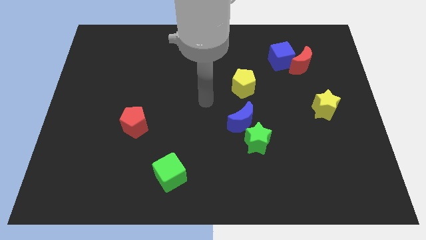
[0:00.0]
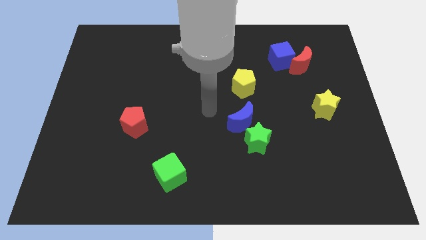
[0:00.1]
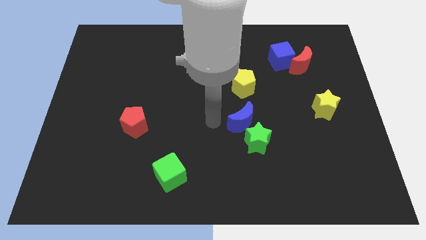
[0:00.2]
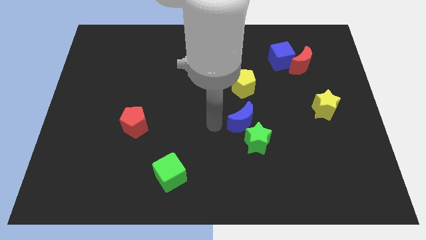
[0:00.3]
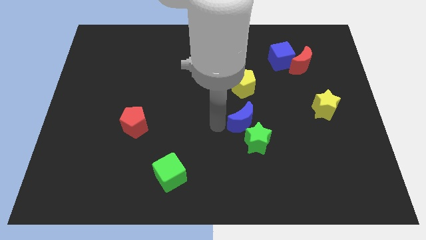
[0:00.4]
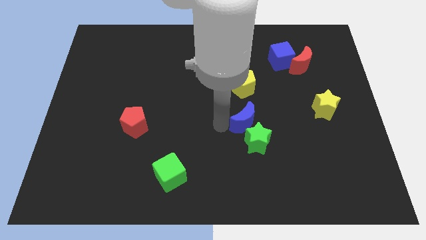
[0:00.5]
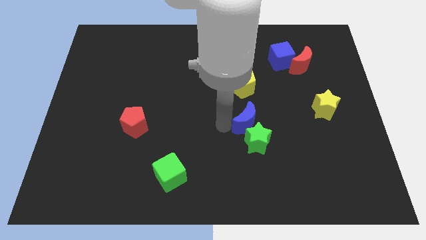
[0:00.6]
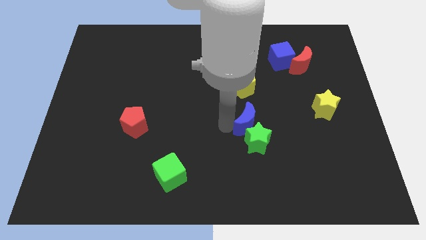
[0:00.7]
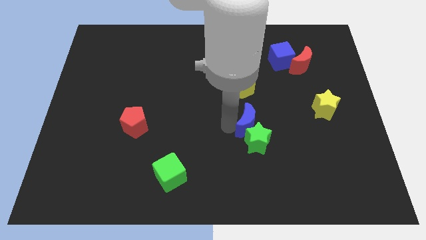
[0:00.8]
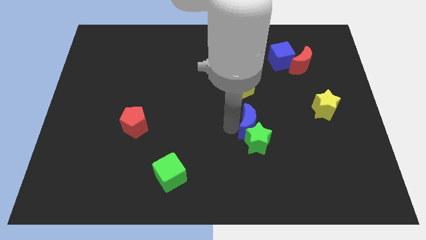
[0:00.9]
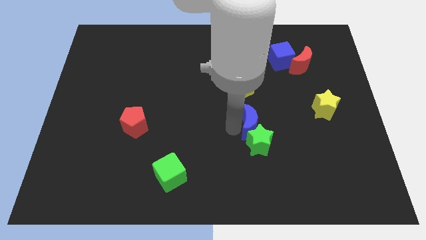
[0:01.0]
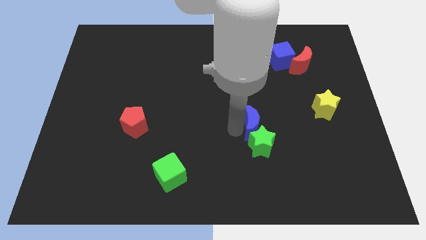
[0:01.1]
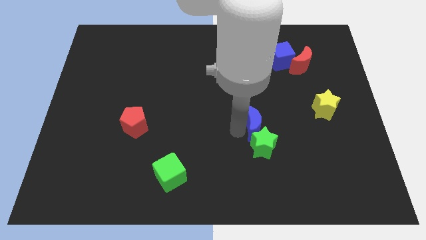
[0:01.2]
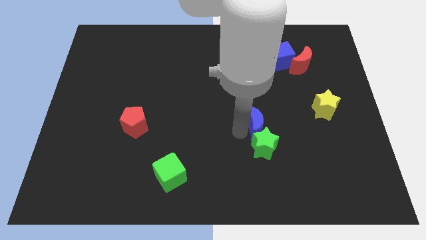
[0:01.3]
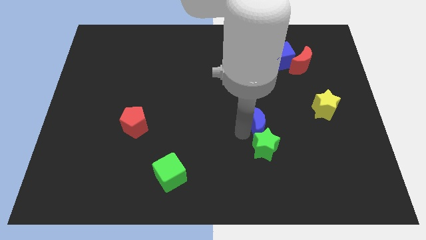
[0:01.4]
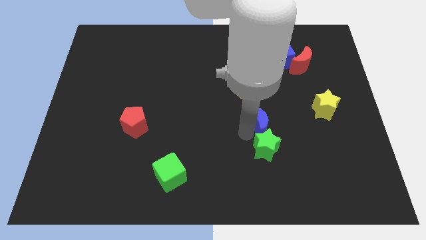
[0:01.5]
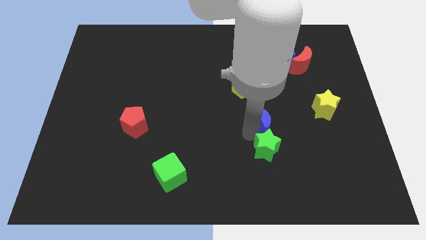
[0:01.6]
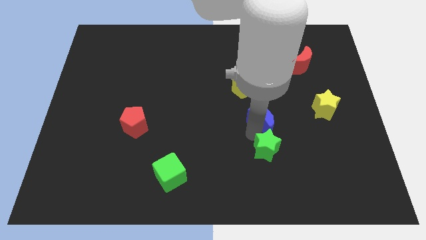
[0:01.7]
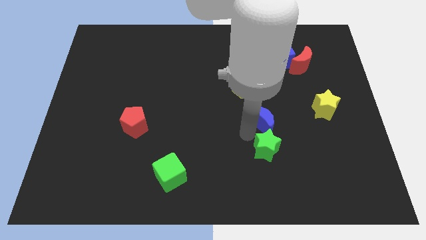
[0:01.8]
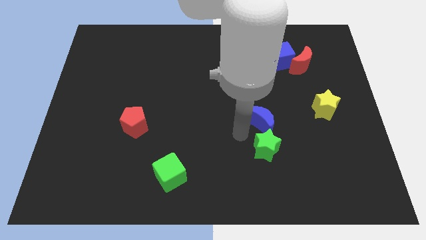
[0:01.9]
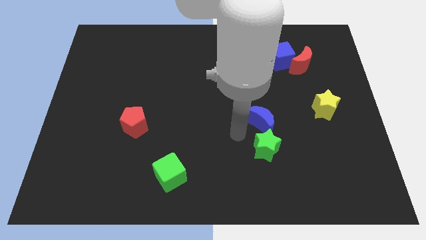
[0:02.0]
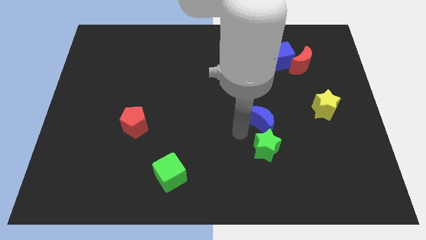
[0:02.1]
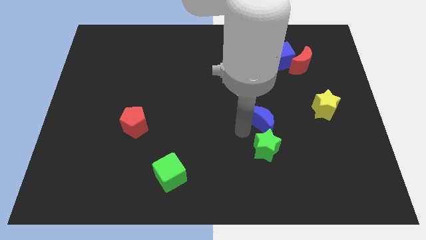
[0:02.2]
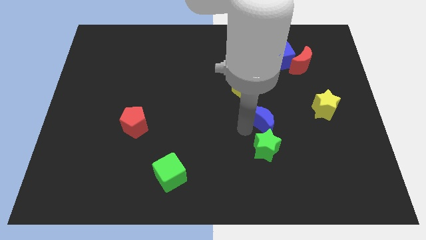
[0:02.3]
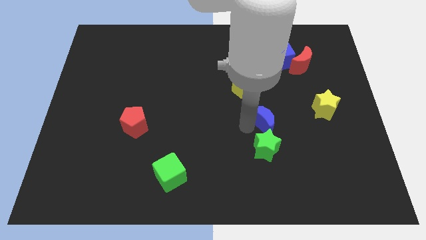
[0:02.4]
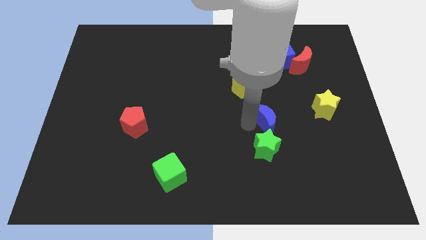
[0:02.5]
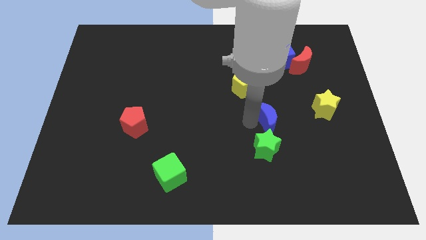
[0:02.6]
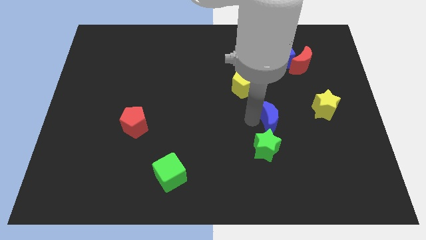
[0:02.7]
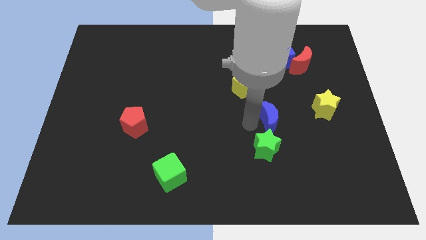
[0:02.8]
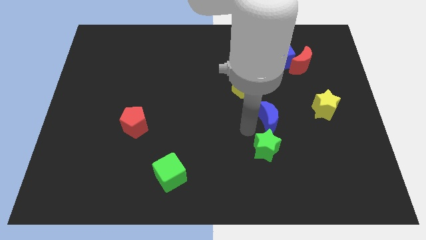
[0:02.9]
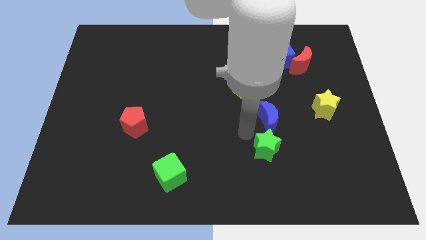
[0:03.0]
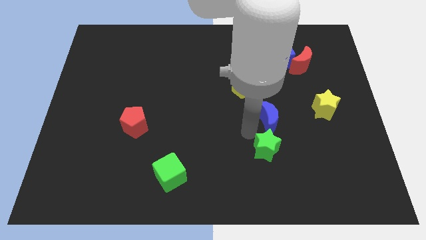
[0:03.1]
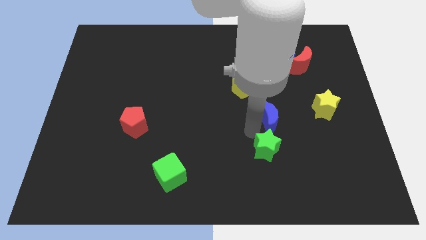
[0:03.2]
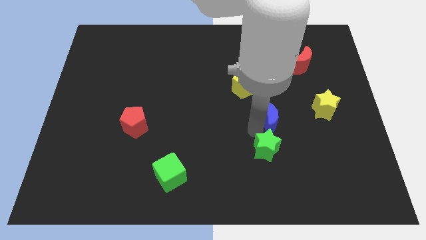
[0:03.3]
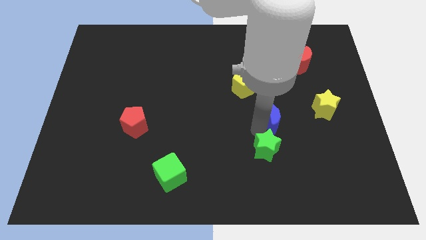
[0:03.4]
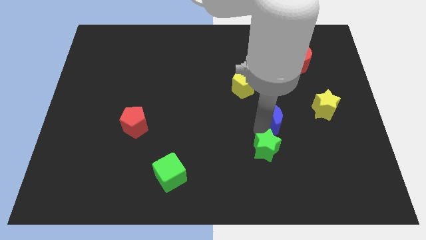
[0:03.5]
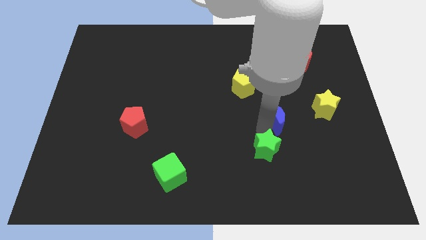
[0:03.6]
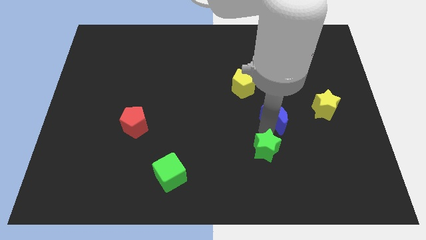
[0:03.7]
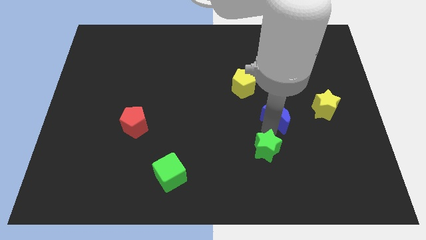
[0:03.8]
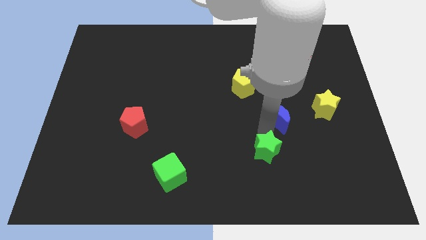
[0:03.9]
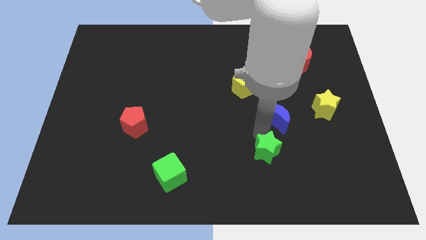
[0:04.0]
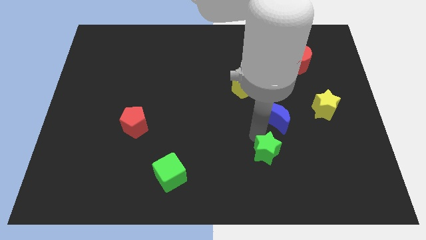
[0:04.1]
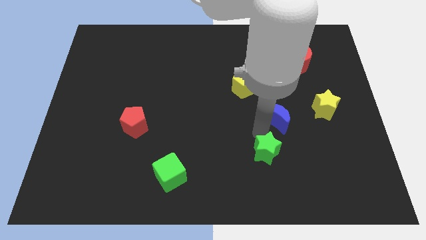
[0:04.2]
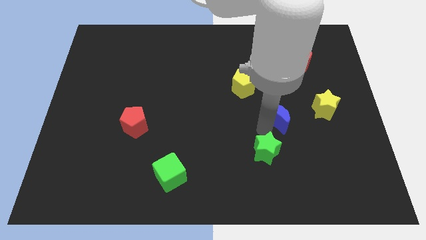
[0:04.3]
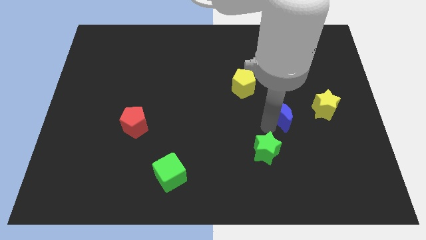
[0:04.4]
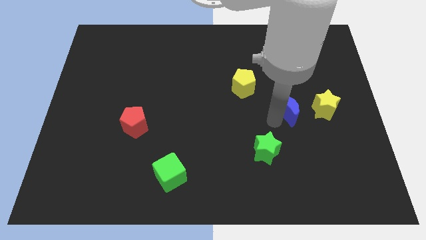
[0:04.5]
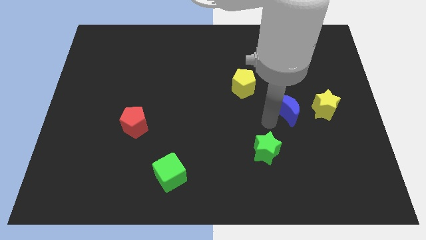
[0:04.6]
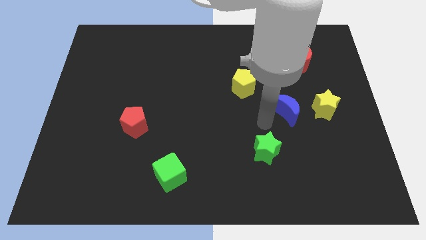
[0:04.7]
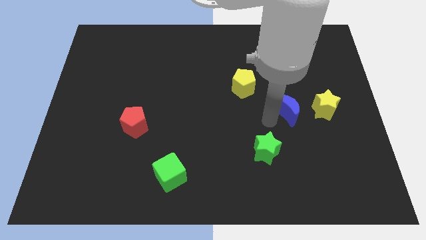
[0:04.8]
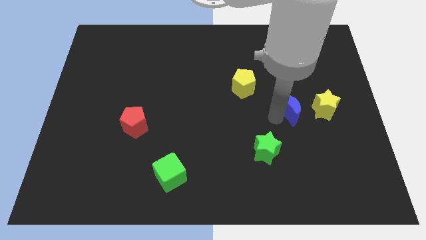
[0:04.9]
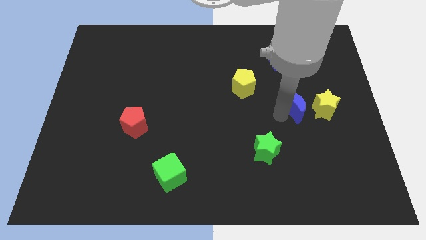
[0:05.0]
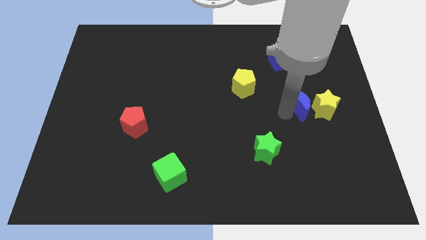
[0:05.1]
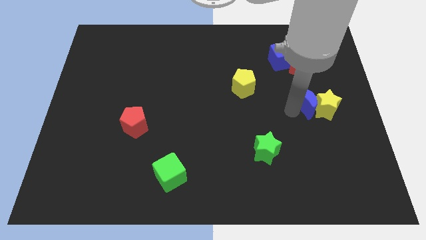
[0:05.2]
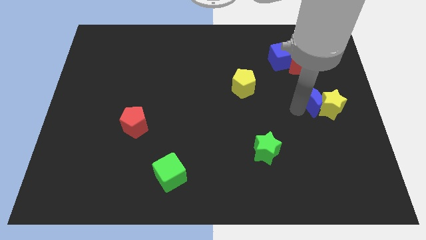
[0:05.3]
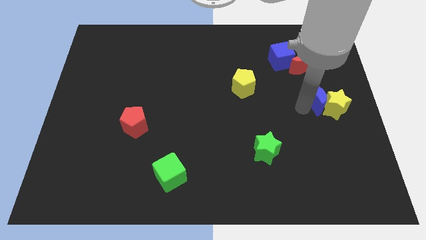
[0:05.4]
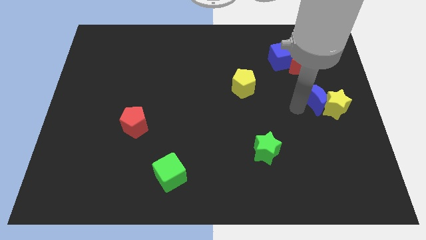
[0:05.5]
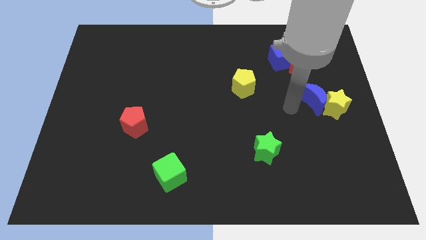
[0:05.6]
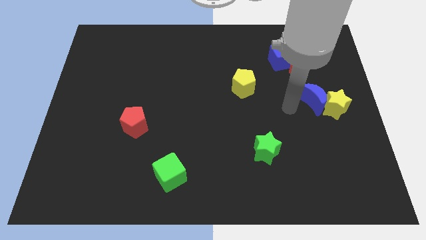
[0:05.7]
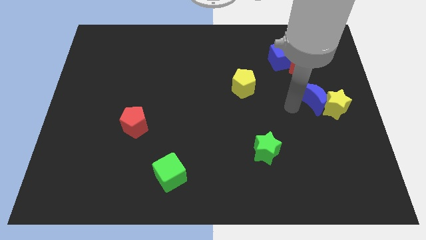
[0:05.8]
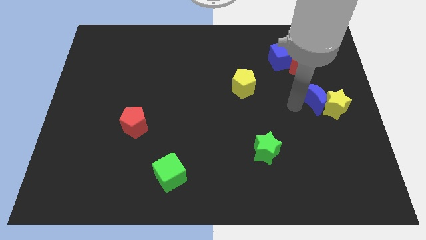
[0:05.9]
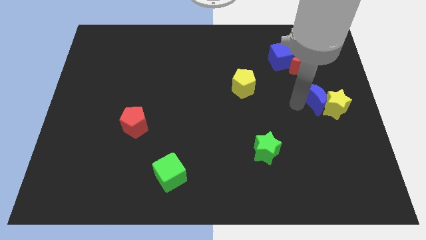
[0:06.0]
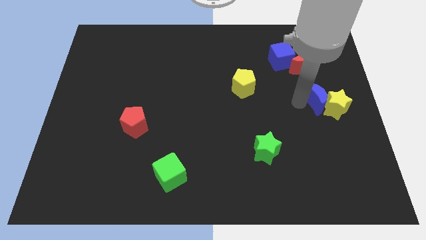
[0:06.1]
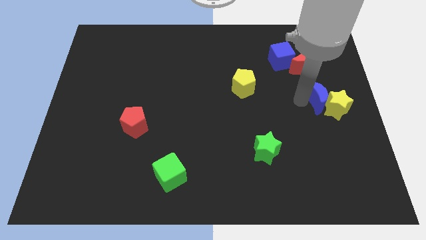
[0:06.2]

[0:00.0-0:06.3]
put the blue moon to the center right
